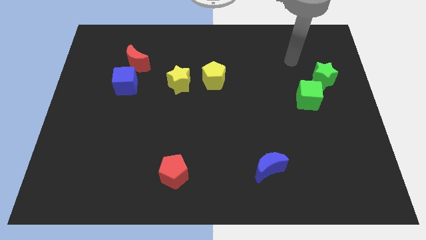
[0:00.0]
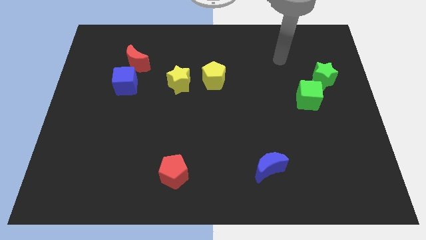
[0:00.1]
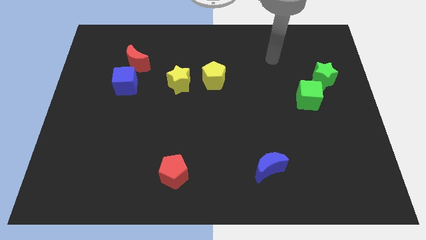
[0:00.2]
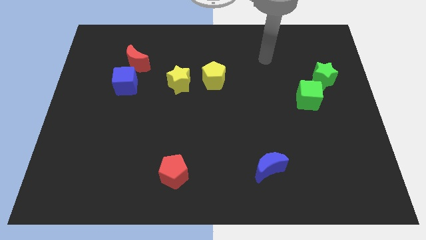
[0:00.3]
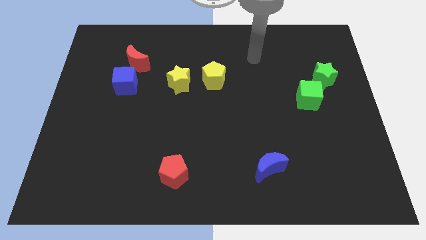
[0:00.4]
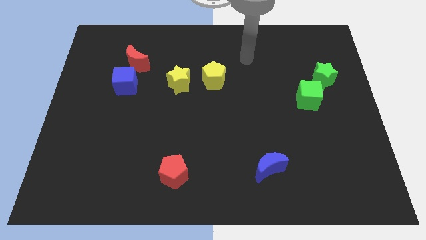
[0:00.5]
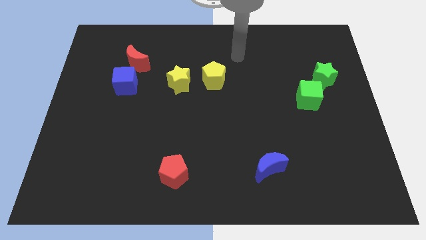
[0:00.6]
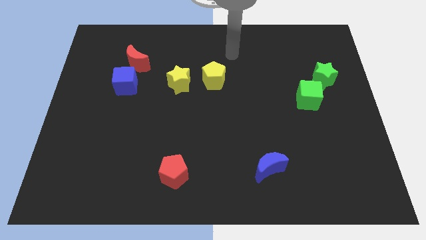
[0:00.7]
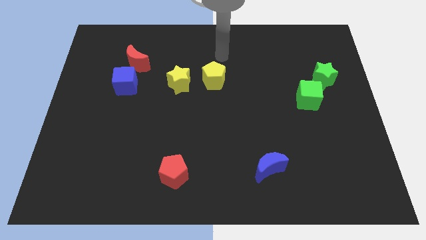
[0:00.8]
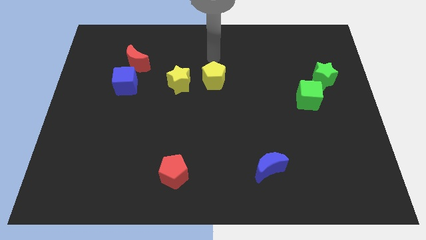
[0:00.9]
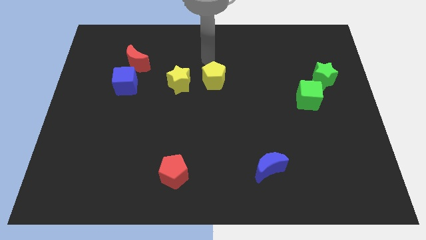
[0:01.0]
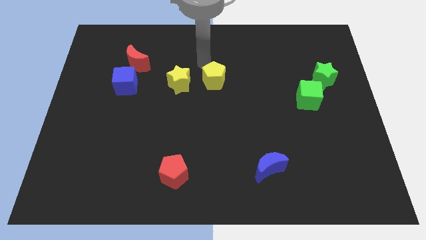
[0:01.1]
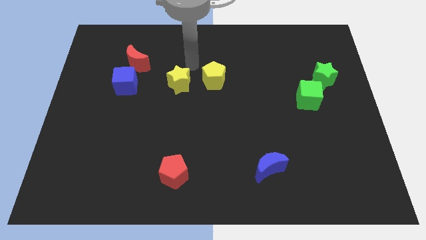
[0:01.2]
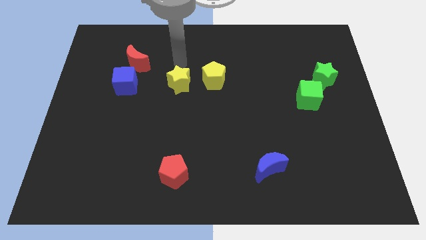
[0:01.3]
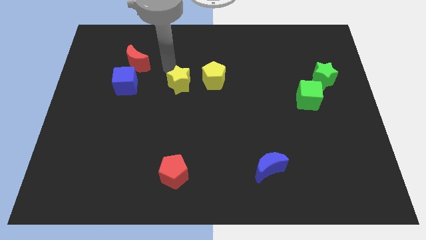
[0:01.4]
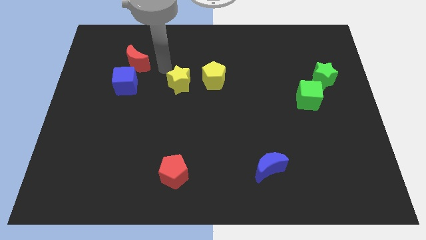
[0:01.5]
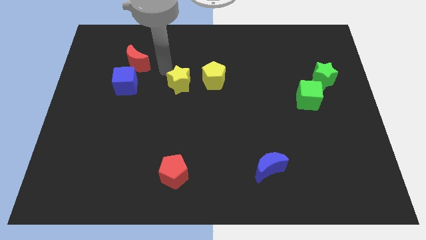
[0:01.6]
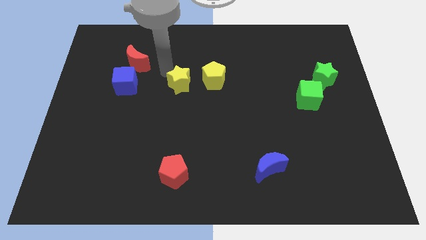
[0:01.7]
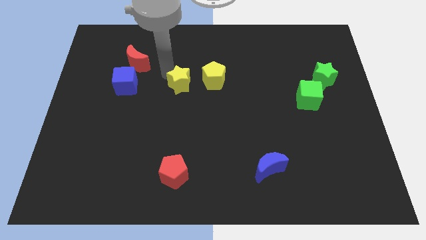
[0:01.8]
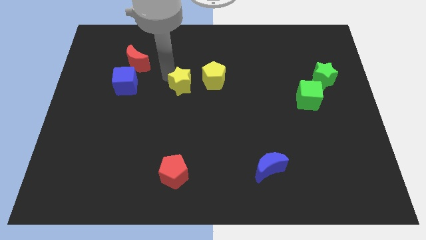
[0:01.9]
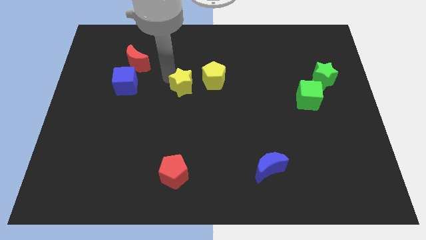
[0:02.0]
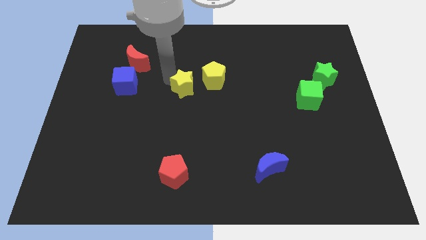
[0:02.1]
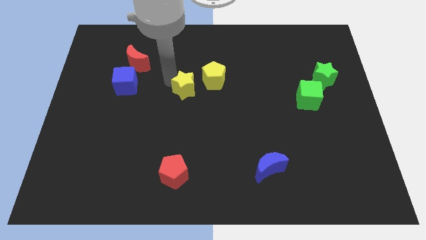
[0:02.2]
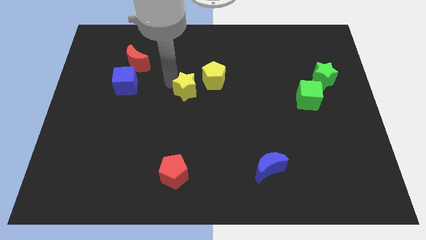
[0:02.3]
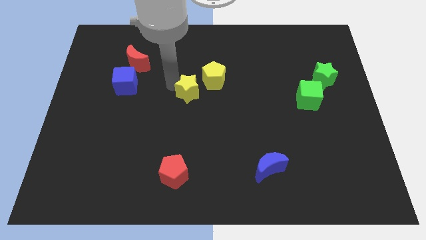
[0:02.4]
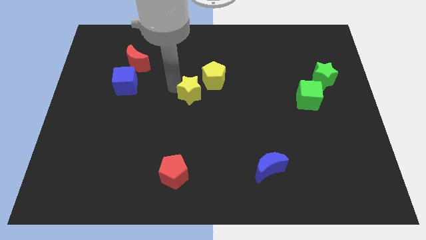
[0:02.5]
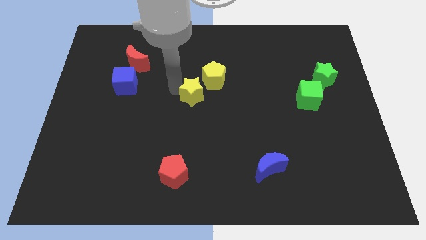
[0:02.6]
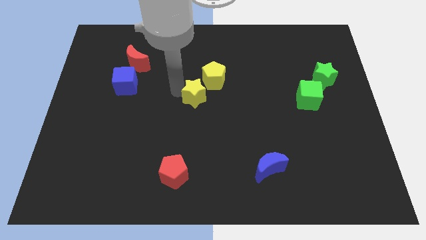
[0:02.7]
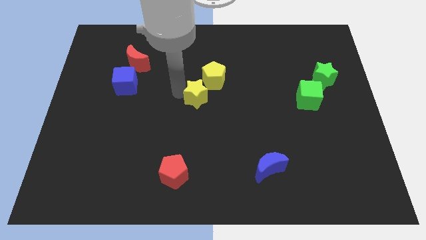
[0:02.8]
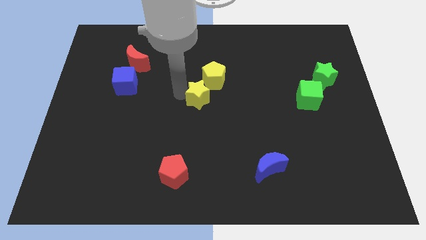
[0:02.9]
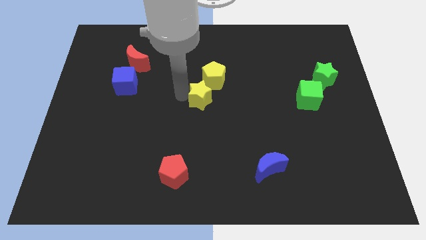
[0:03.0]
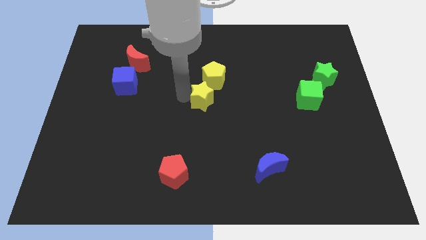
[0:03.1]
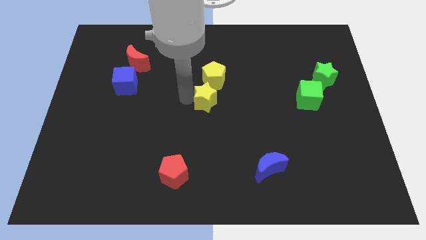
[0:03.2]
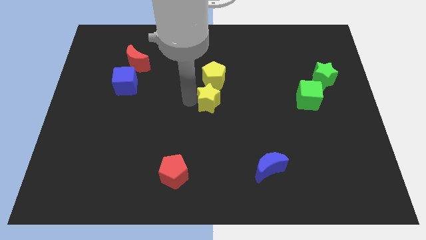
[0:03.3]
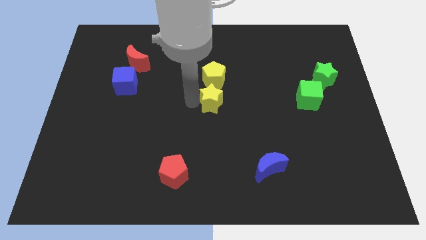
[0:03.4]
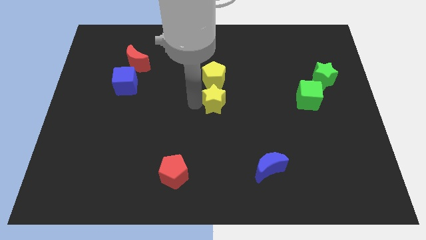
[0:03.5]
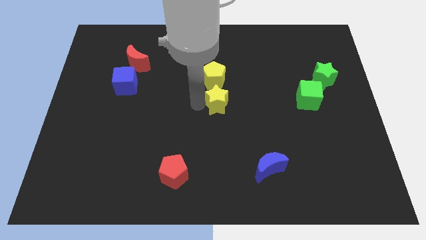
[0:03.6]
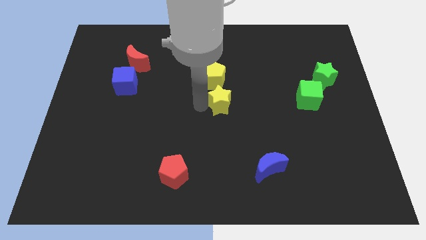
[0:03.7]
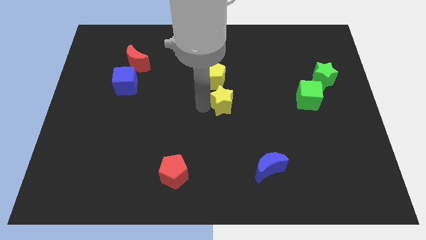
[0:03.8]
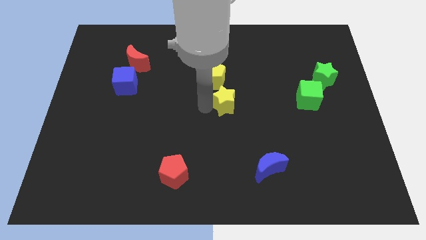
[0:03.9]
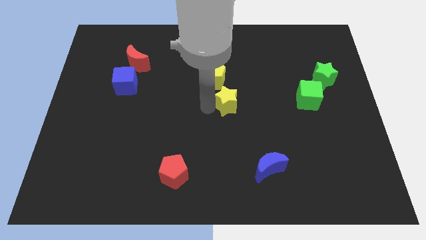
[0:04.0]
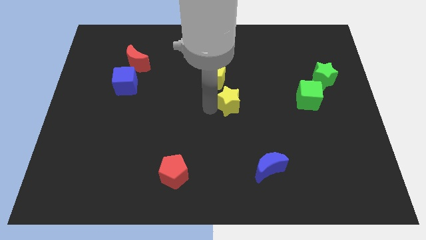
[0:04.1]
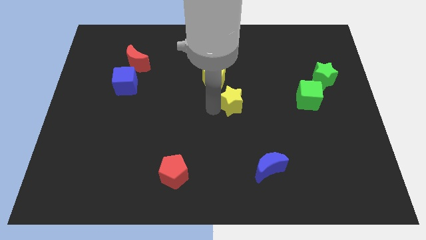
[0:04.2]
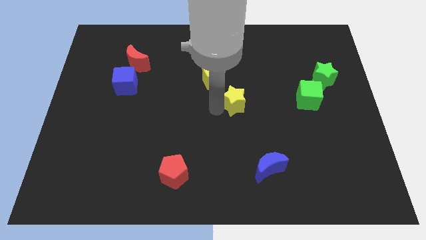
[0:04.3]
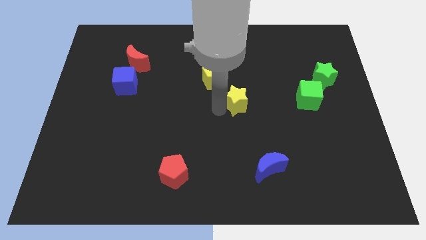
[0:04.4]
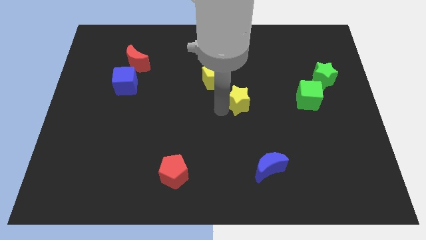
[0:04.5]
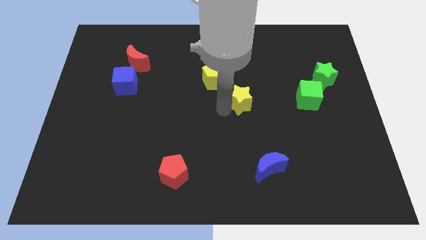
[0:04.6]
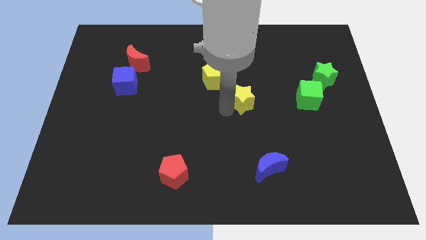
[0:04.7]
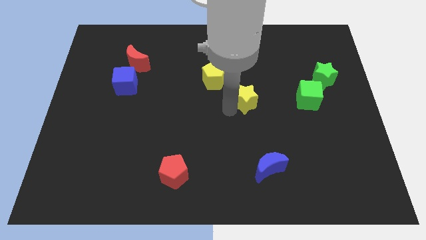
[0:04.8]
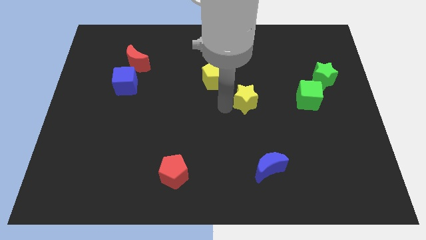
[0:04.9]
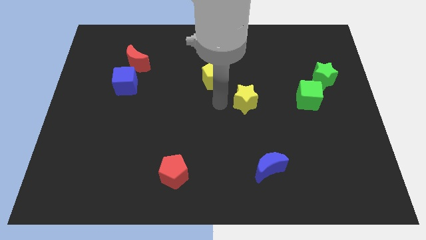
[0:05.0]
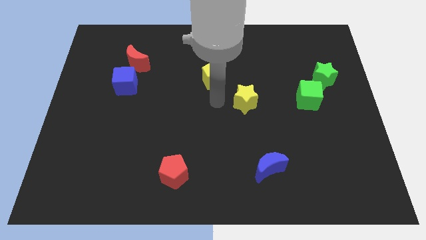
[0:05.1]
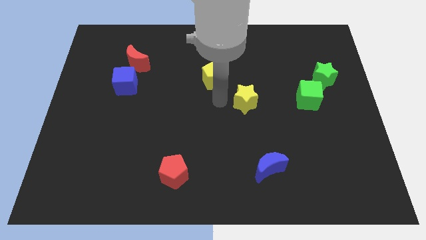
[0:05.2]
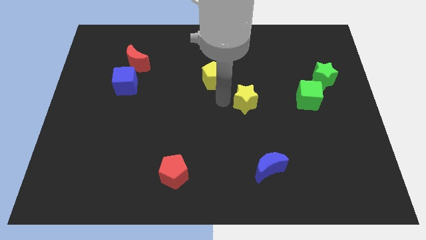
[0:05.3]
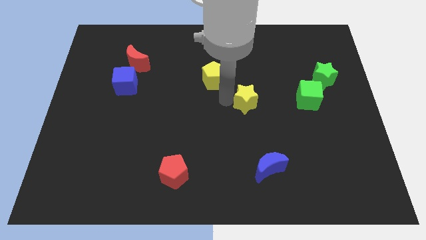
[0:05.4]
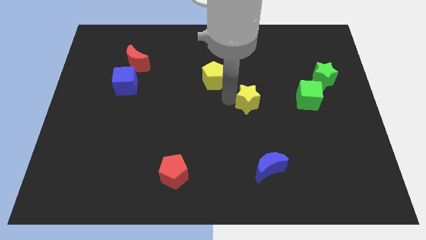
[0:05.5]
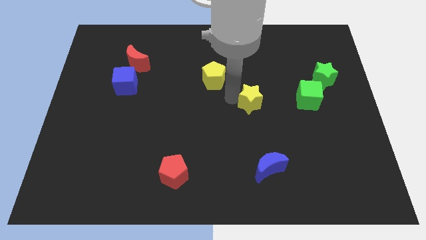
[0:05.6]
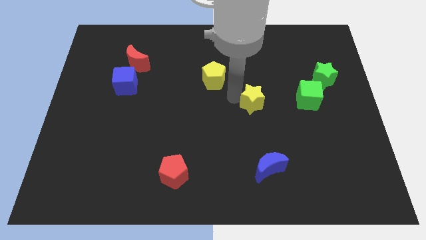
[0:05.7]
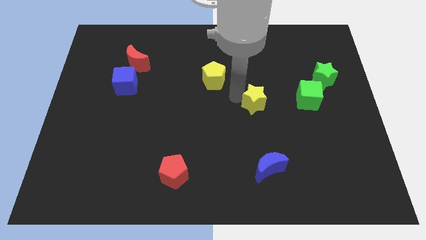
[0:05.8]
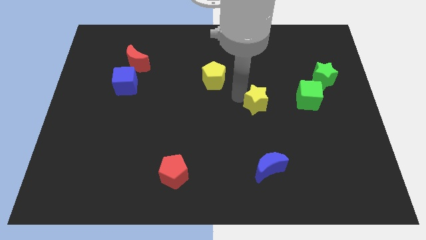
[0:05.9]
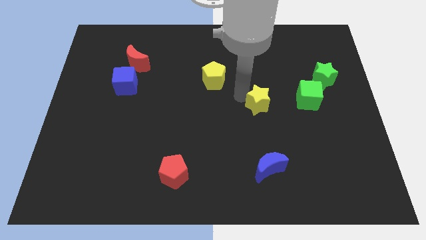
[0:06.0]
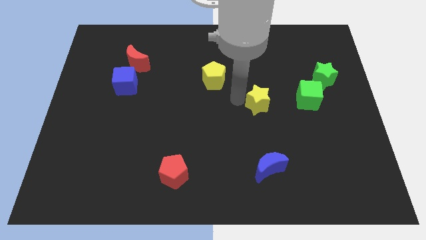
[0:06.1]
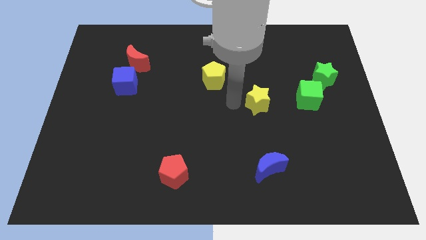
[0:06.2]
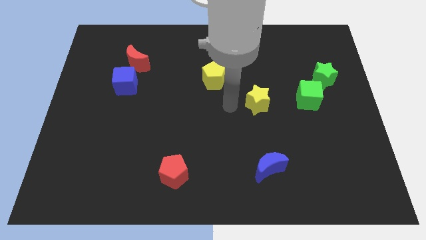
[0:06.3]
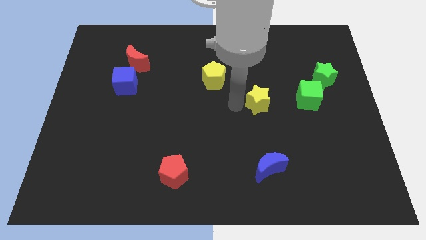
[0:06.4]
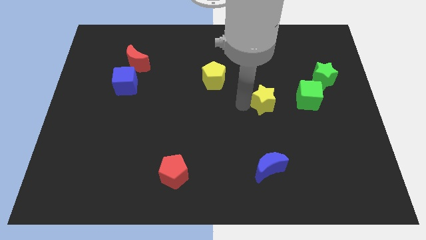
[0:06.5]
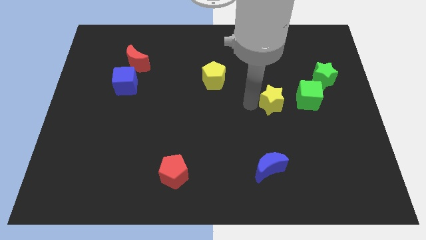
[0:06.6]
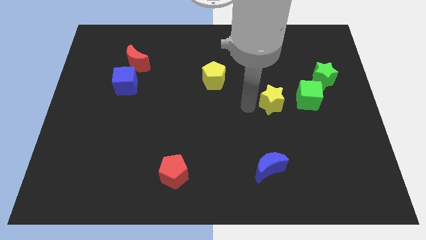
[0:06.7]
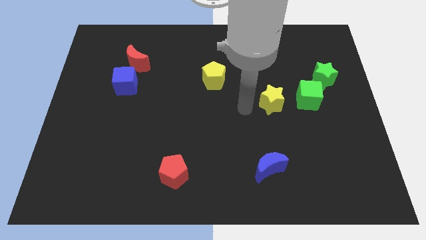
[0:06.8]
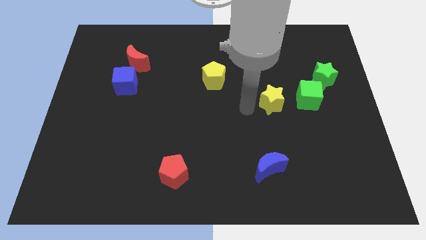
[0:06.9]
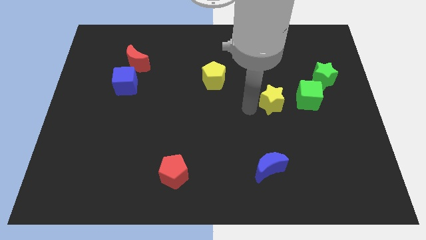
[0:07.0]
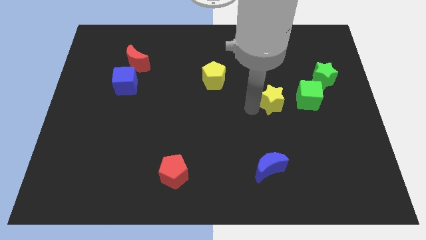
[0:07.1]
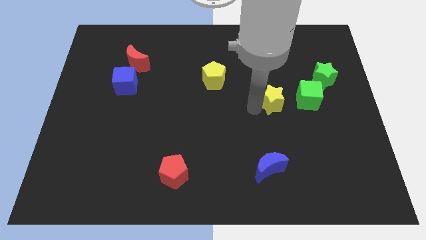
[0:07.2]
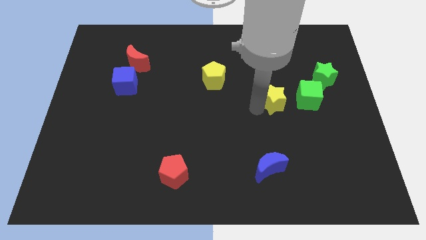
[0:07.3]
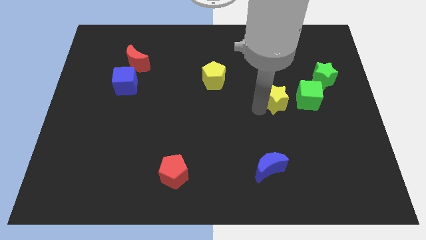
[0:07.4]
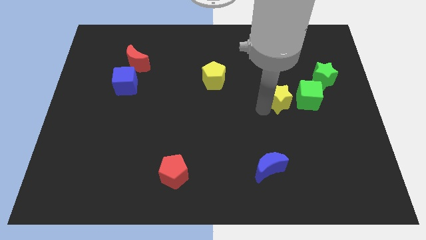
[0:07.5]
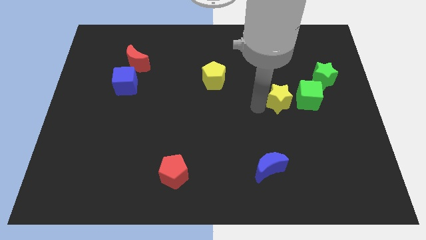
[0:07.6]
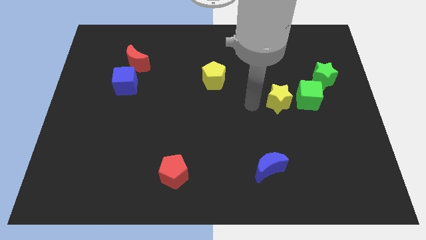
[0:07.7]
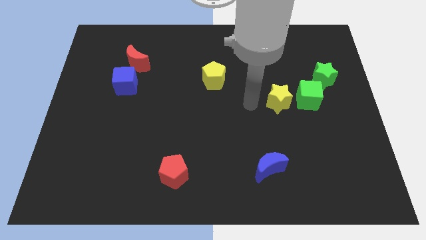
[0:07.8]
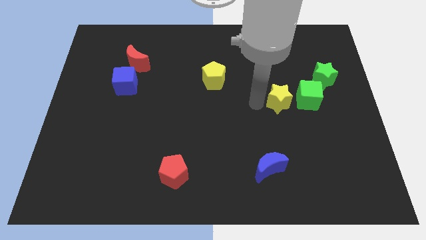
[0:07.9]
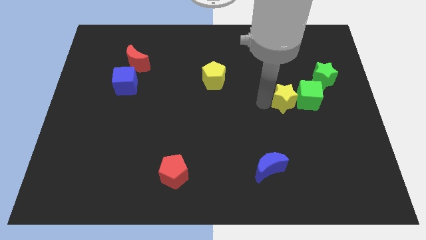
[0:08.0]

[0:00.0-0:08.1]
put the yellow star towards the green cube

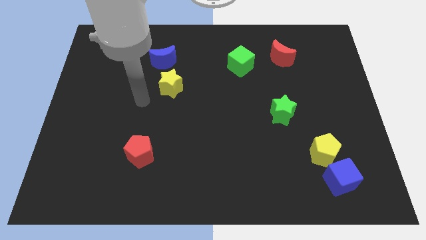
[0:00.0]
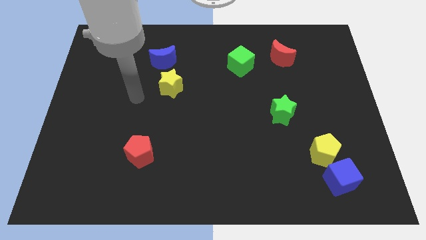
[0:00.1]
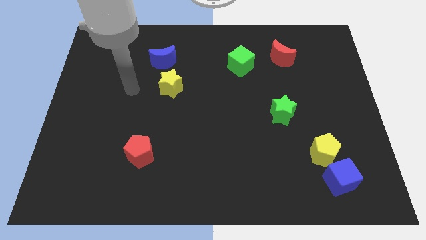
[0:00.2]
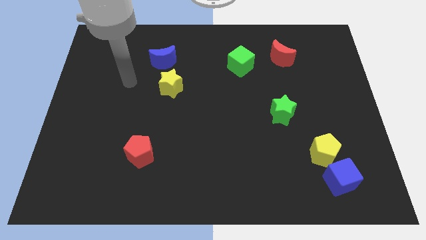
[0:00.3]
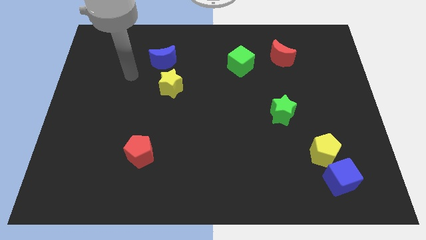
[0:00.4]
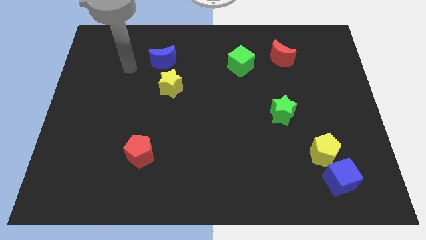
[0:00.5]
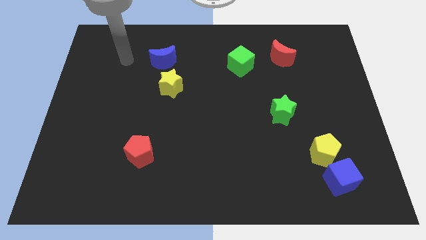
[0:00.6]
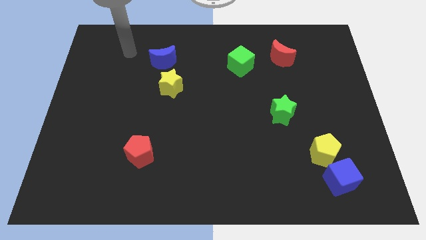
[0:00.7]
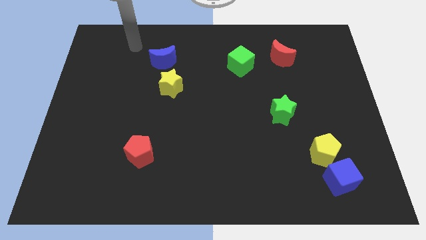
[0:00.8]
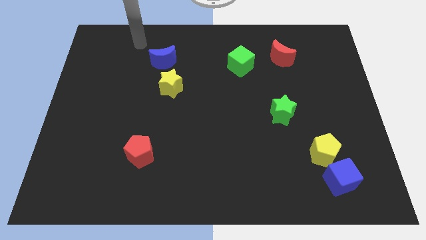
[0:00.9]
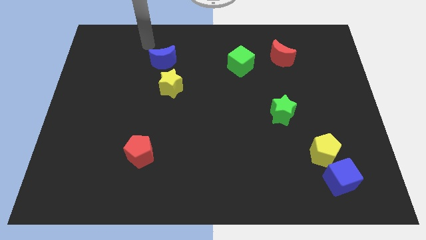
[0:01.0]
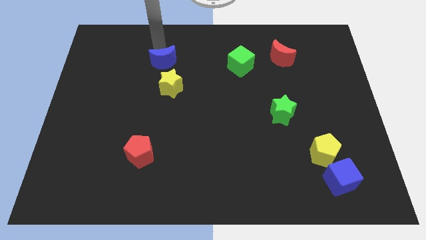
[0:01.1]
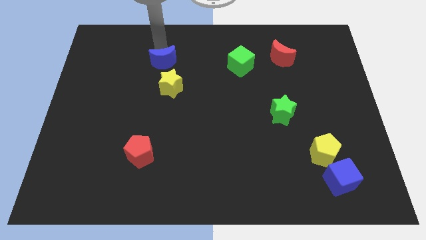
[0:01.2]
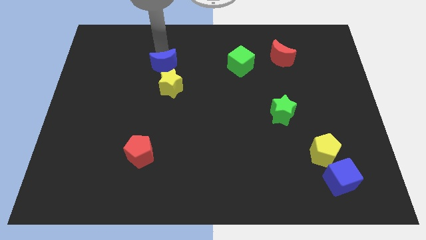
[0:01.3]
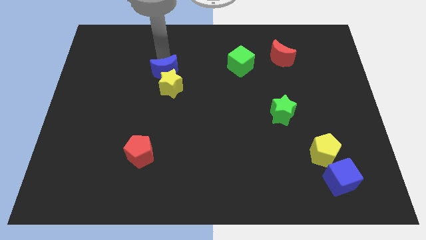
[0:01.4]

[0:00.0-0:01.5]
push the blue moon towards the yellow star
